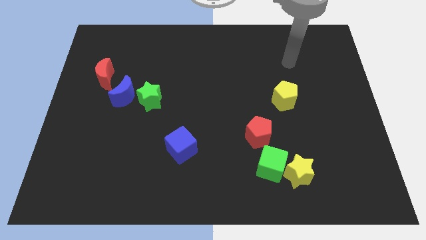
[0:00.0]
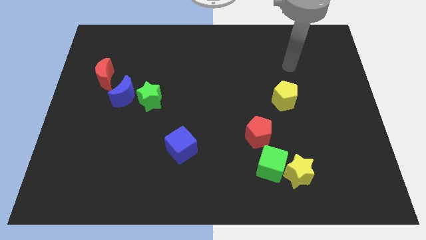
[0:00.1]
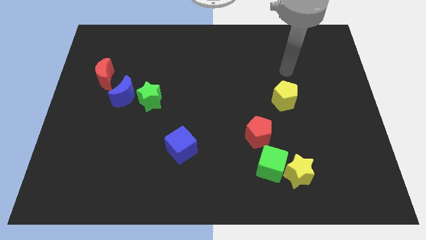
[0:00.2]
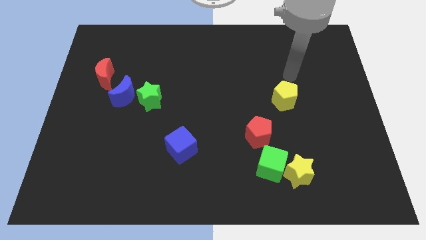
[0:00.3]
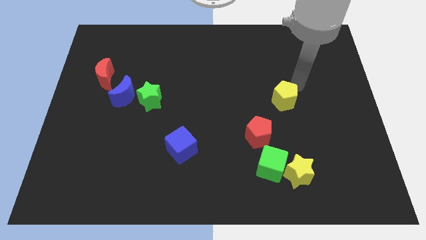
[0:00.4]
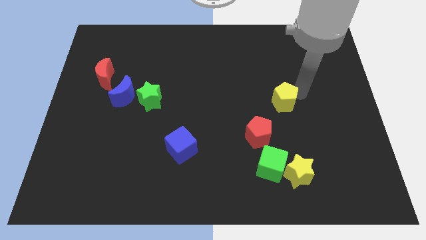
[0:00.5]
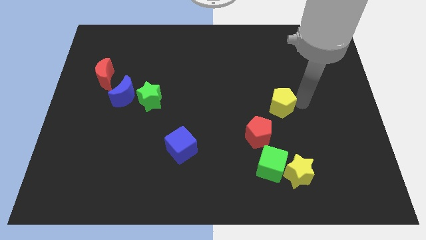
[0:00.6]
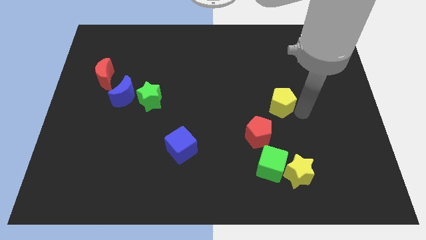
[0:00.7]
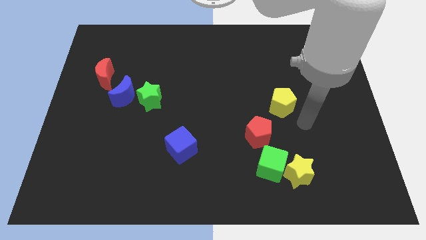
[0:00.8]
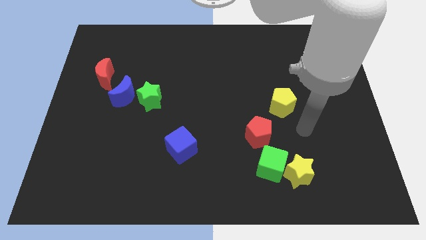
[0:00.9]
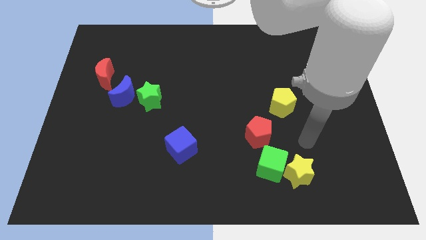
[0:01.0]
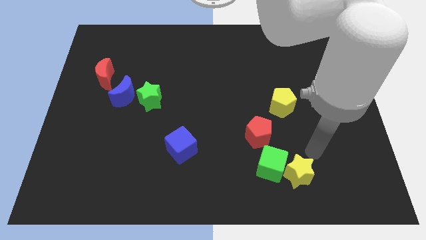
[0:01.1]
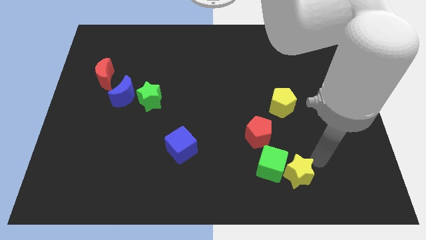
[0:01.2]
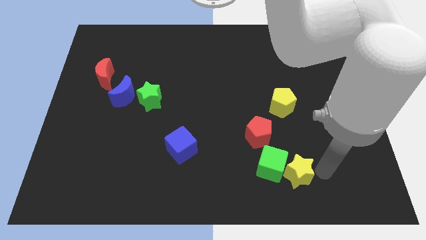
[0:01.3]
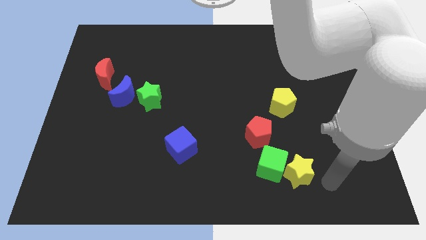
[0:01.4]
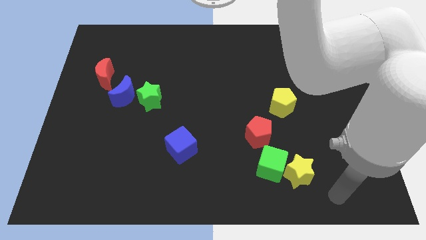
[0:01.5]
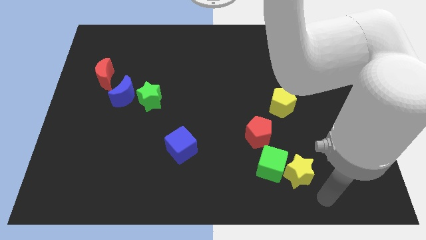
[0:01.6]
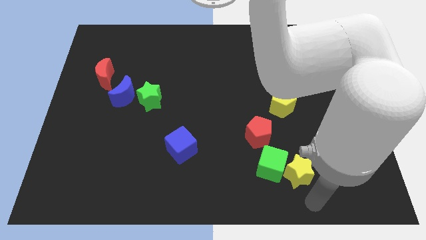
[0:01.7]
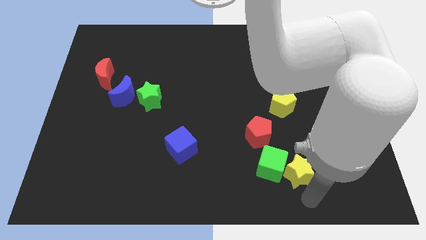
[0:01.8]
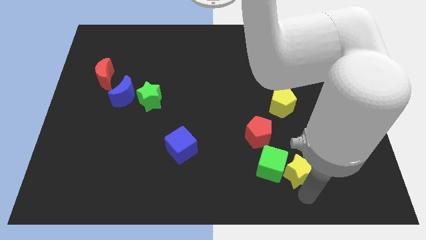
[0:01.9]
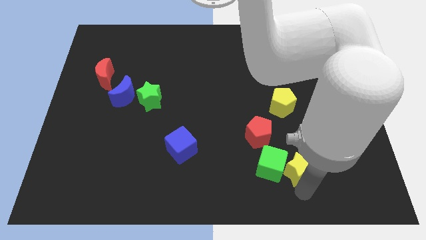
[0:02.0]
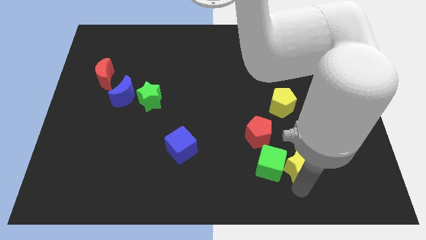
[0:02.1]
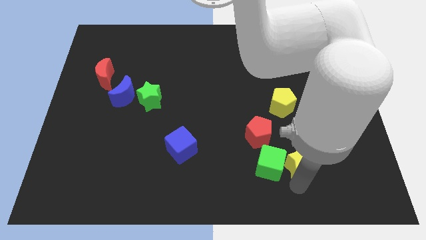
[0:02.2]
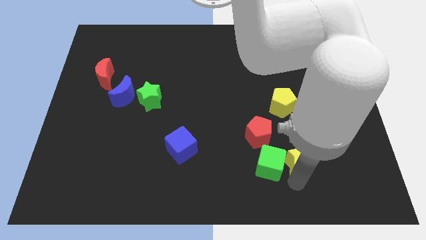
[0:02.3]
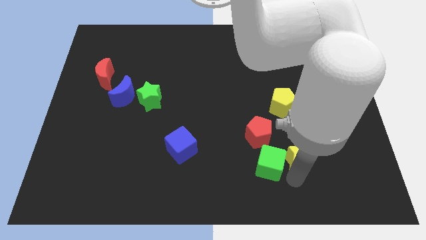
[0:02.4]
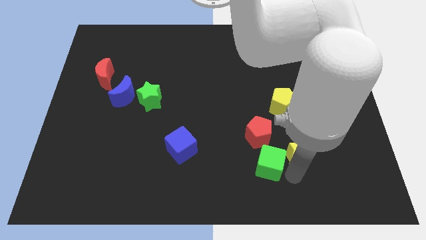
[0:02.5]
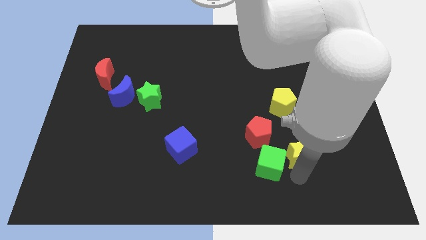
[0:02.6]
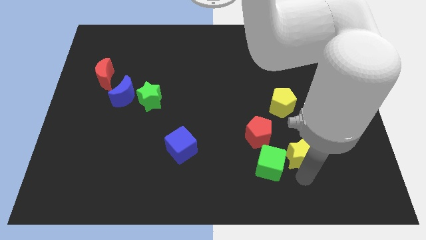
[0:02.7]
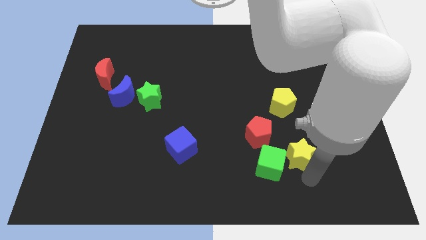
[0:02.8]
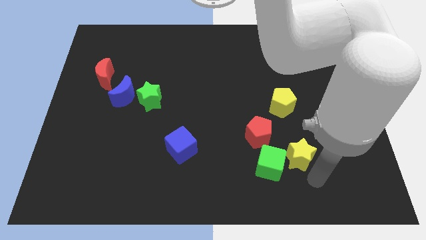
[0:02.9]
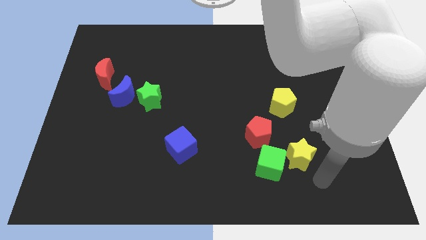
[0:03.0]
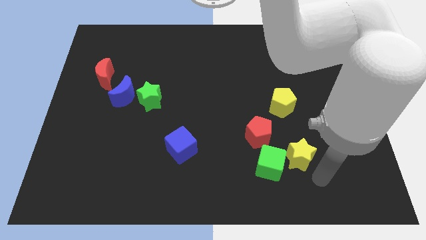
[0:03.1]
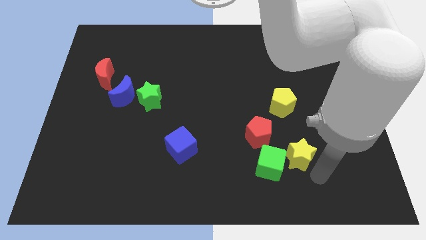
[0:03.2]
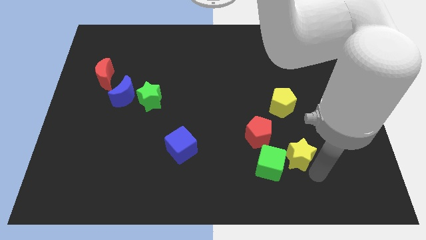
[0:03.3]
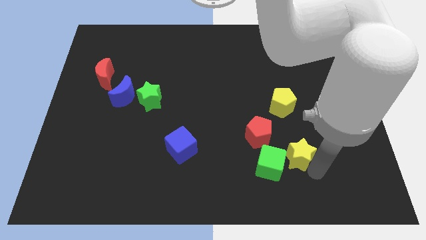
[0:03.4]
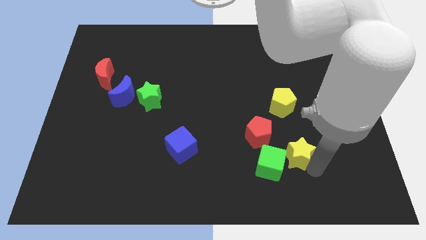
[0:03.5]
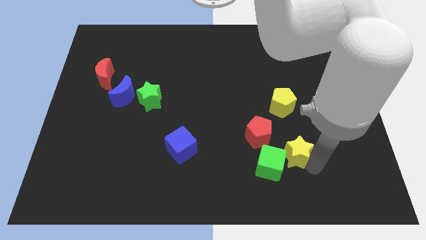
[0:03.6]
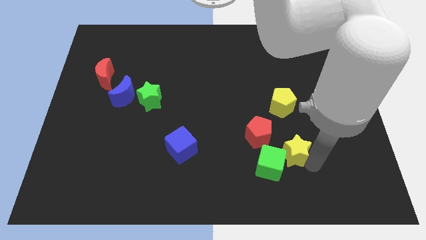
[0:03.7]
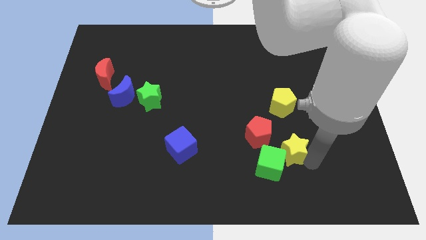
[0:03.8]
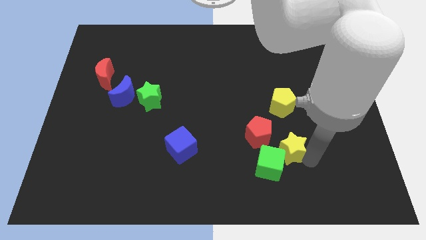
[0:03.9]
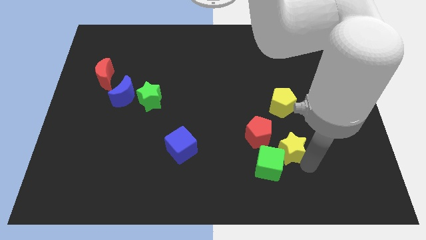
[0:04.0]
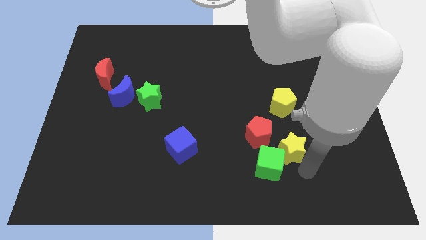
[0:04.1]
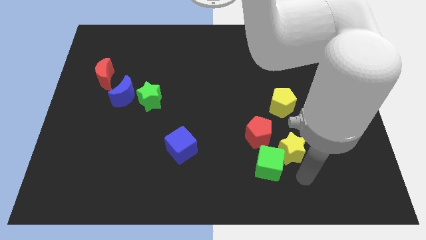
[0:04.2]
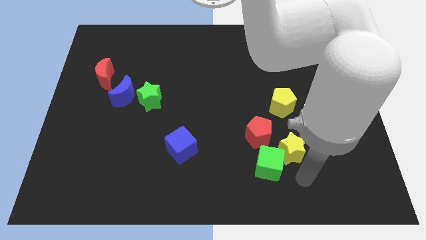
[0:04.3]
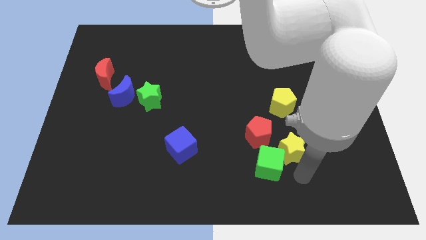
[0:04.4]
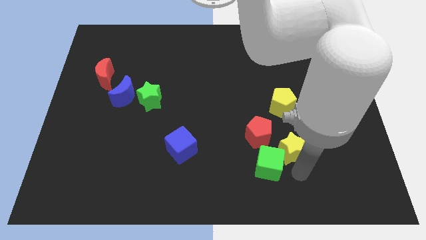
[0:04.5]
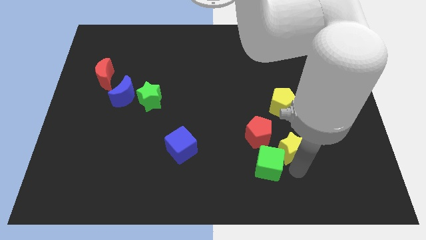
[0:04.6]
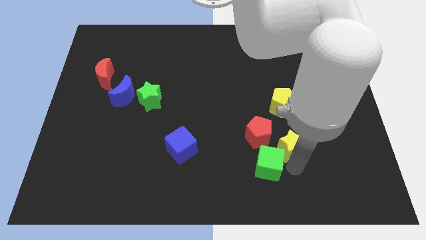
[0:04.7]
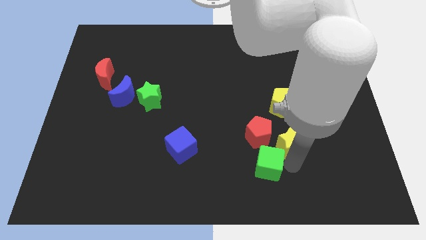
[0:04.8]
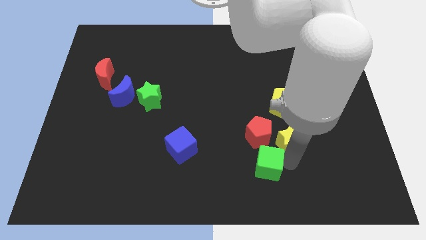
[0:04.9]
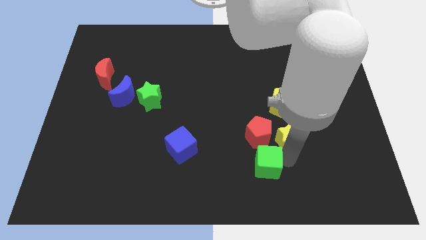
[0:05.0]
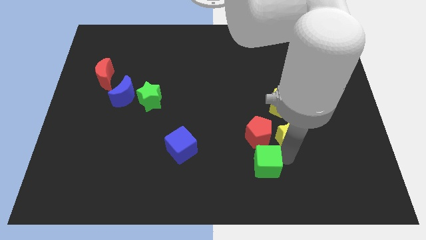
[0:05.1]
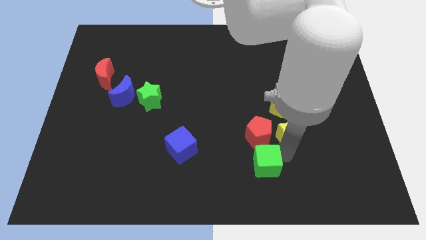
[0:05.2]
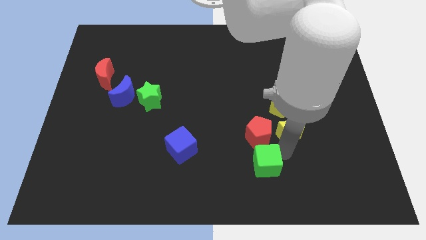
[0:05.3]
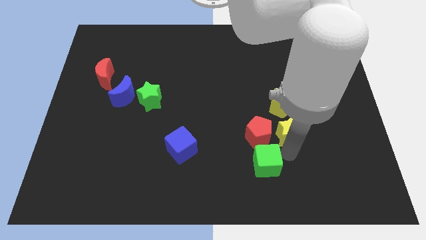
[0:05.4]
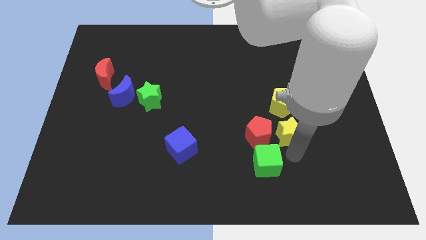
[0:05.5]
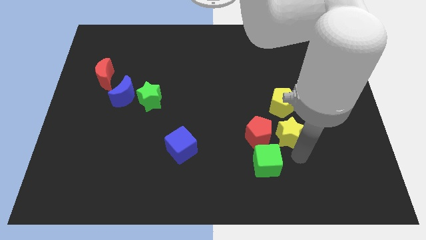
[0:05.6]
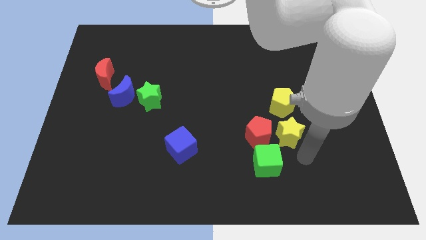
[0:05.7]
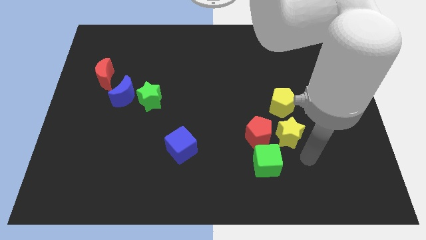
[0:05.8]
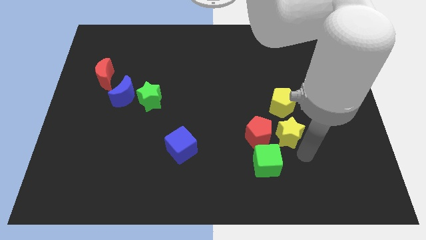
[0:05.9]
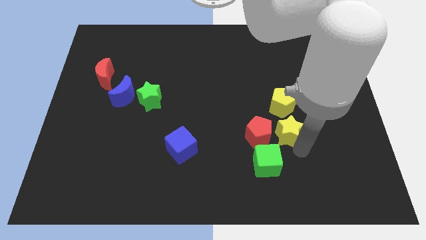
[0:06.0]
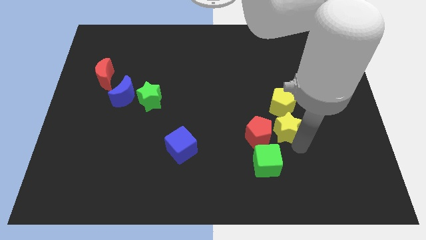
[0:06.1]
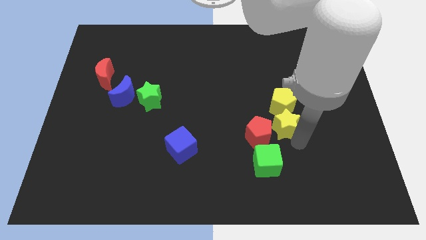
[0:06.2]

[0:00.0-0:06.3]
slightly push the yellow star up and then left

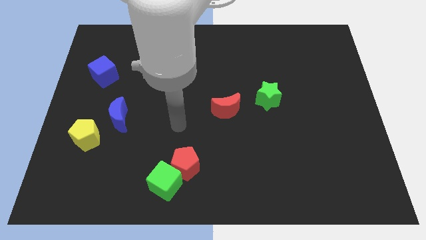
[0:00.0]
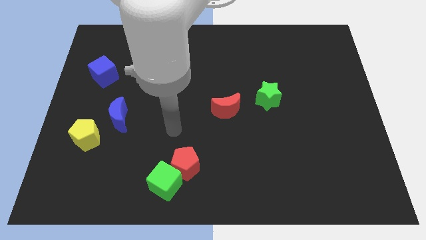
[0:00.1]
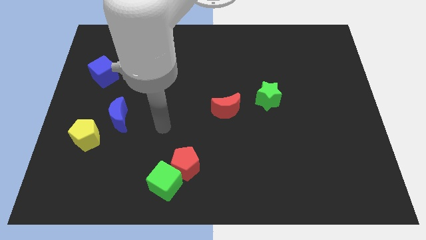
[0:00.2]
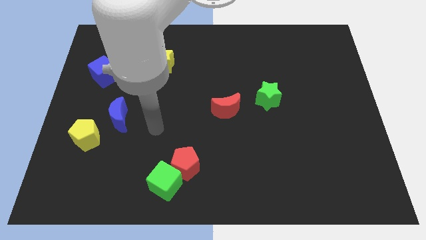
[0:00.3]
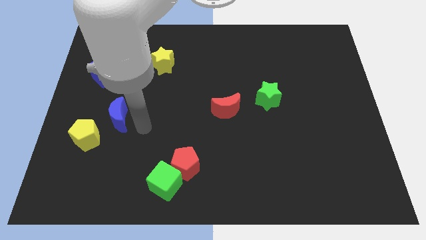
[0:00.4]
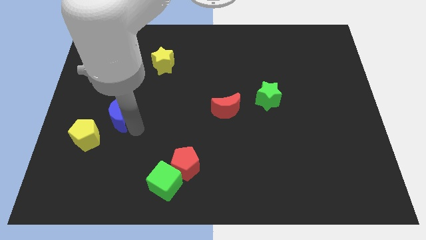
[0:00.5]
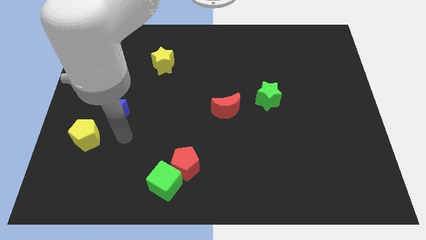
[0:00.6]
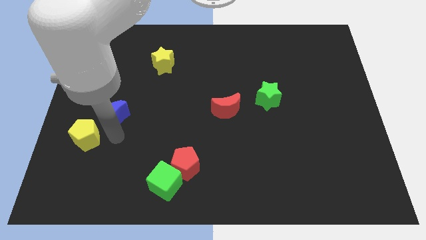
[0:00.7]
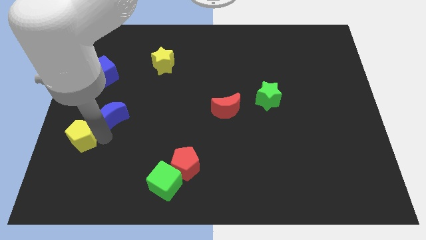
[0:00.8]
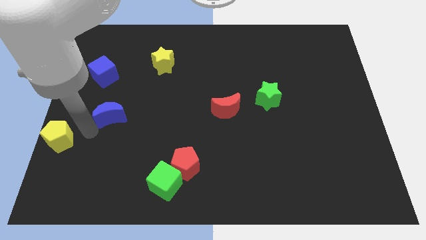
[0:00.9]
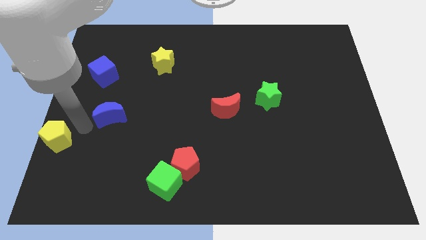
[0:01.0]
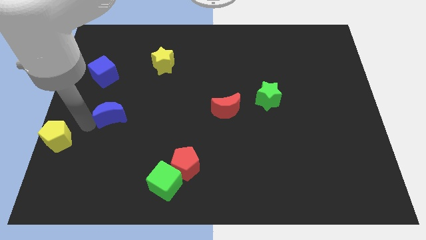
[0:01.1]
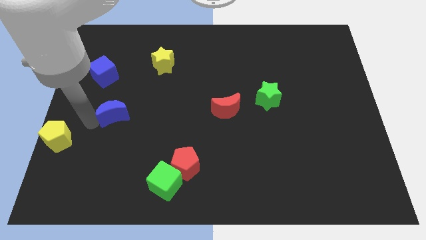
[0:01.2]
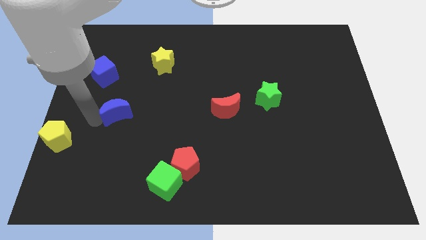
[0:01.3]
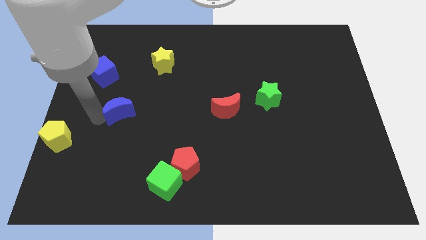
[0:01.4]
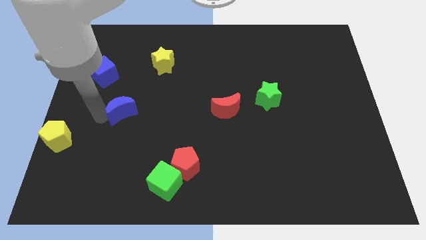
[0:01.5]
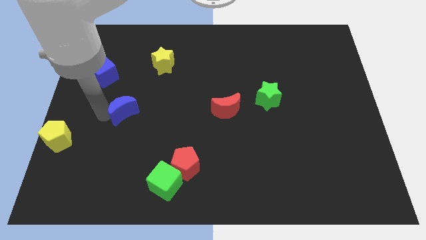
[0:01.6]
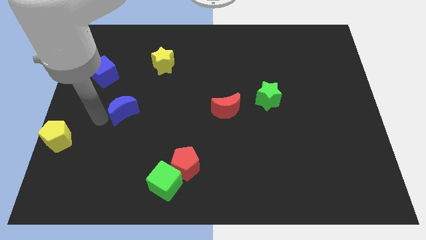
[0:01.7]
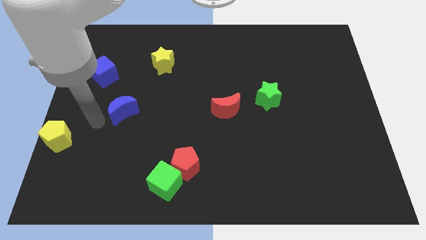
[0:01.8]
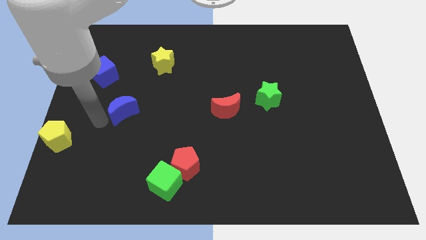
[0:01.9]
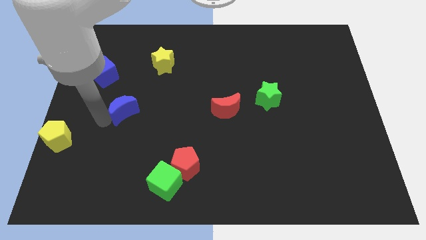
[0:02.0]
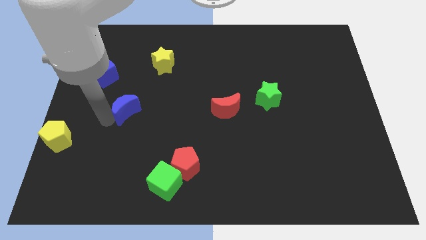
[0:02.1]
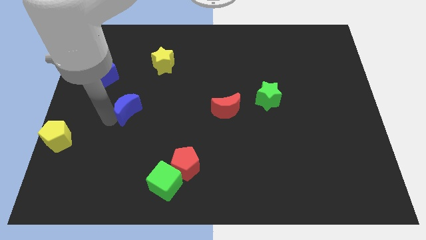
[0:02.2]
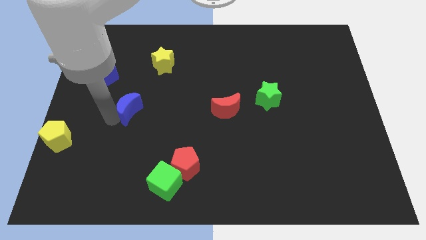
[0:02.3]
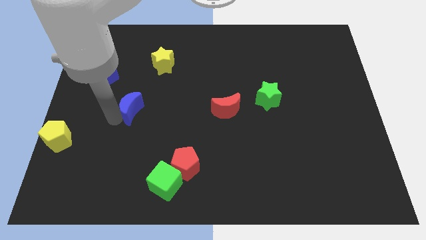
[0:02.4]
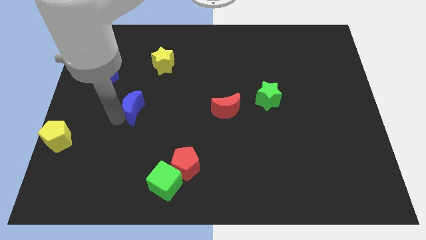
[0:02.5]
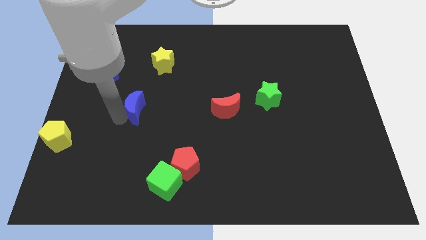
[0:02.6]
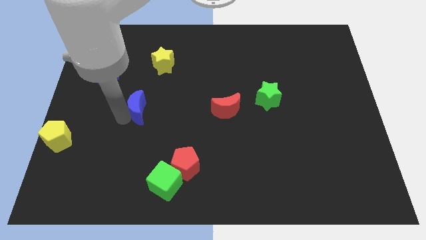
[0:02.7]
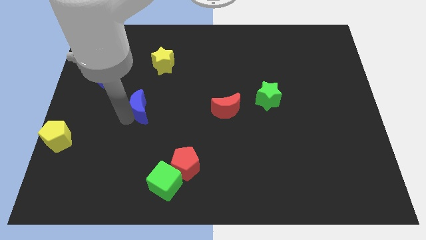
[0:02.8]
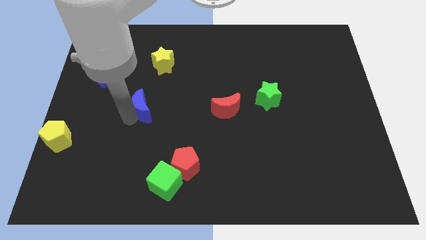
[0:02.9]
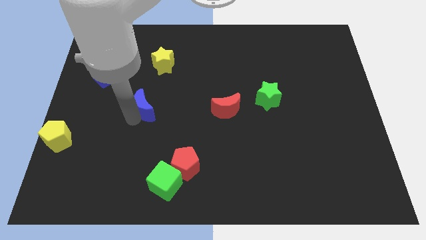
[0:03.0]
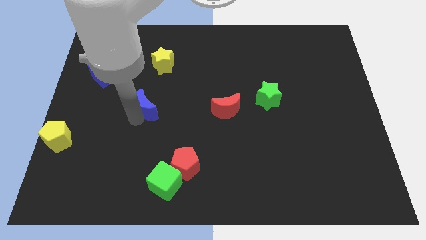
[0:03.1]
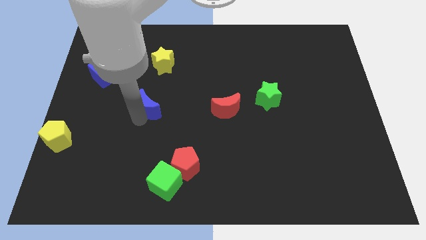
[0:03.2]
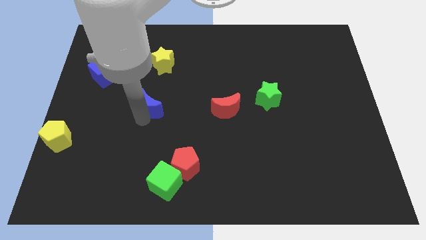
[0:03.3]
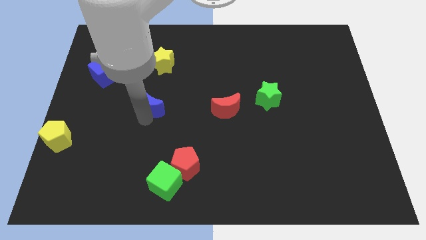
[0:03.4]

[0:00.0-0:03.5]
move the blue moon up and right diagonally slightly
